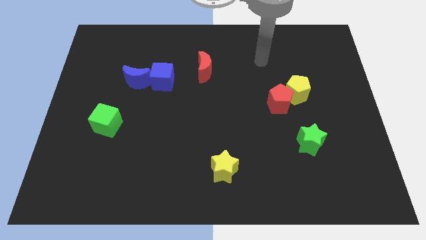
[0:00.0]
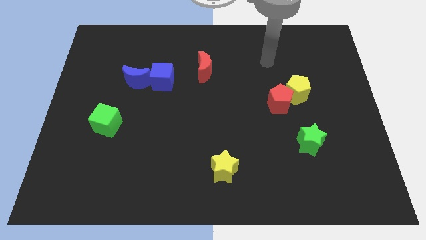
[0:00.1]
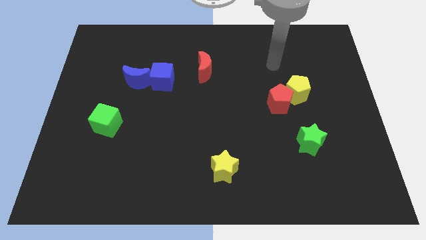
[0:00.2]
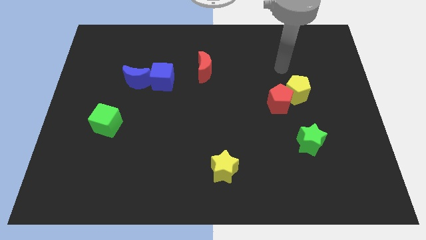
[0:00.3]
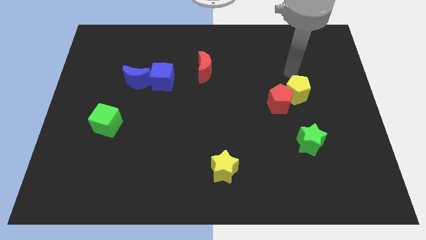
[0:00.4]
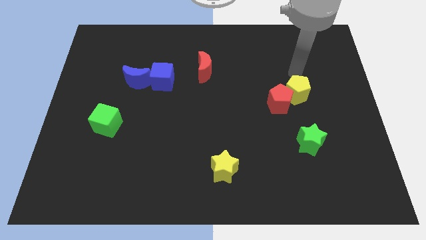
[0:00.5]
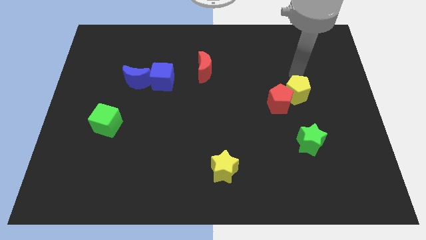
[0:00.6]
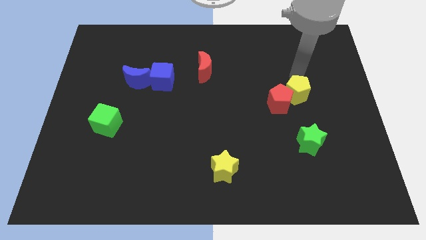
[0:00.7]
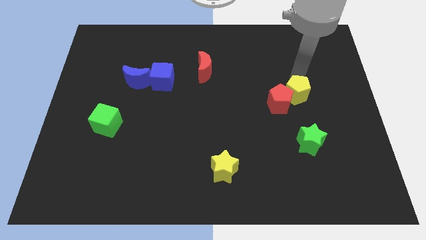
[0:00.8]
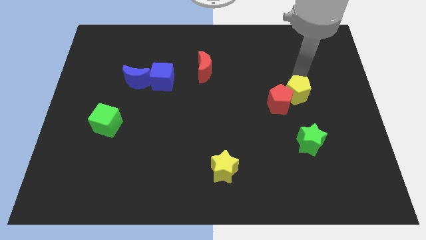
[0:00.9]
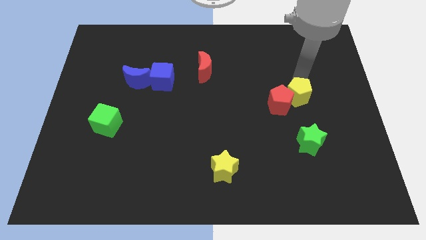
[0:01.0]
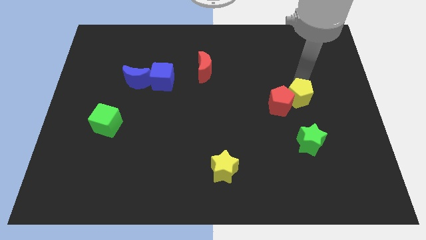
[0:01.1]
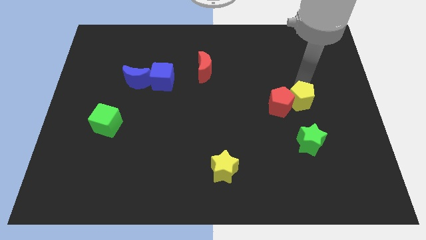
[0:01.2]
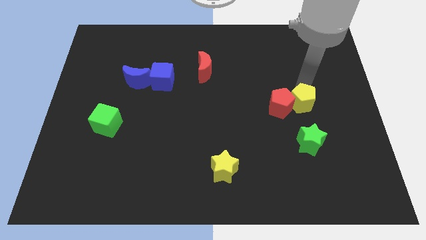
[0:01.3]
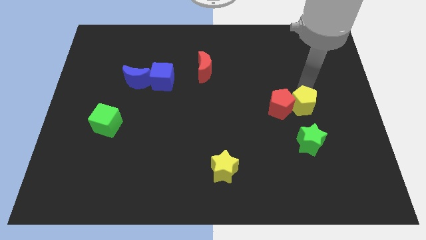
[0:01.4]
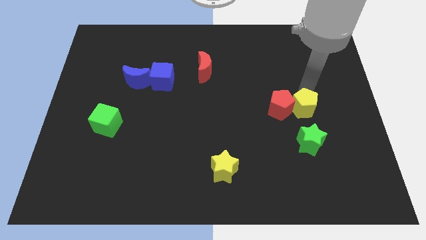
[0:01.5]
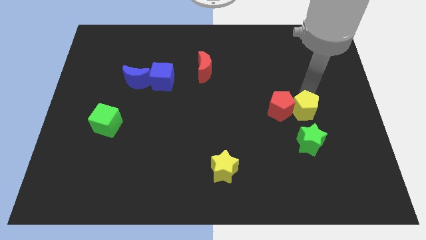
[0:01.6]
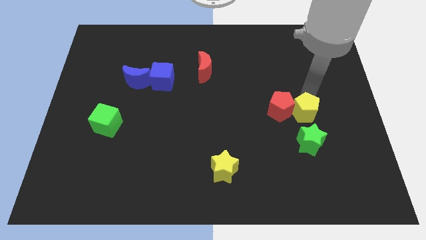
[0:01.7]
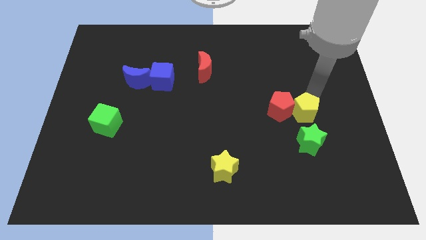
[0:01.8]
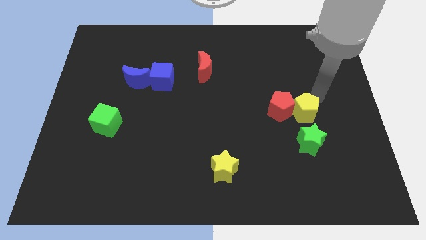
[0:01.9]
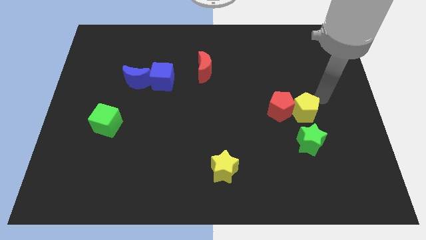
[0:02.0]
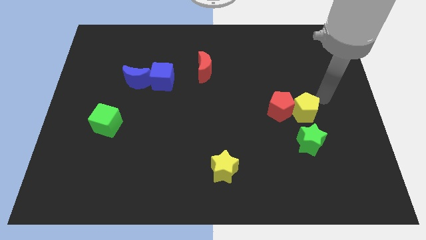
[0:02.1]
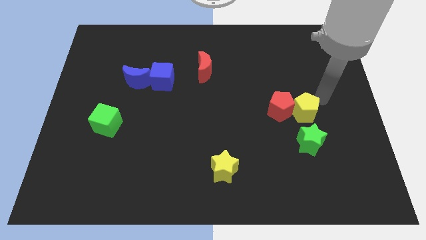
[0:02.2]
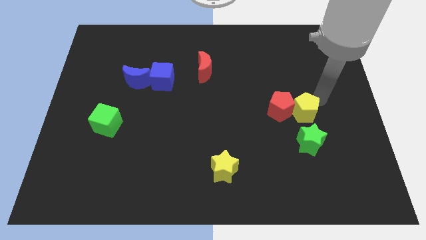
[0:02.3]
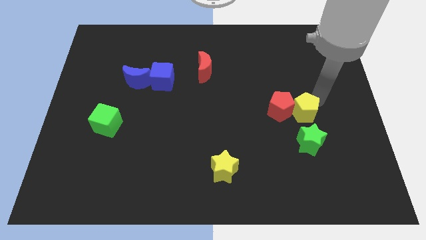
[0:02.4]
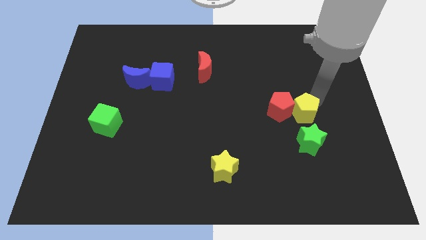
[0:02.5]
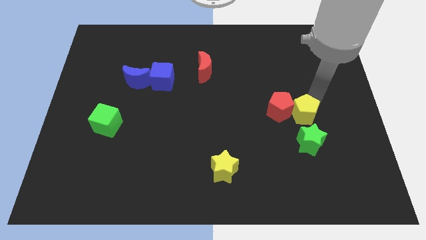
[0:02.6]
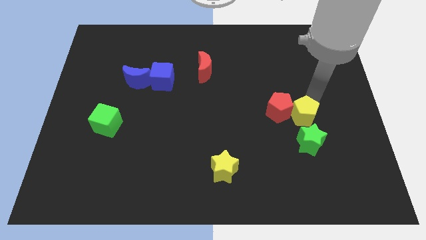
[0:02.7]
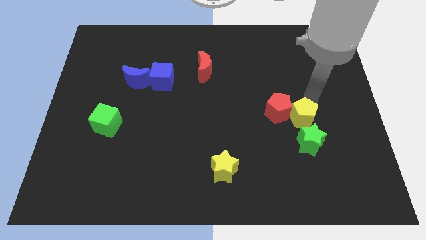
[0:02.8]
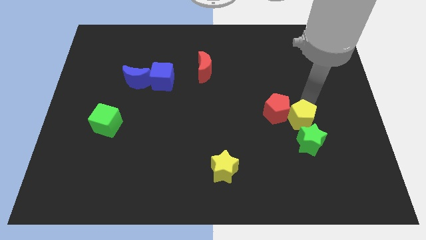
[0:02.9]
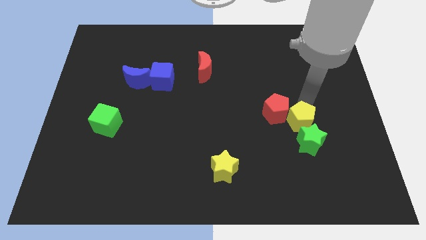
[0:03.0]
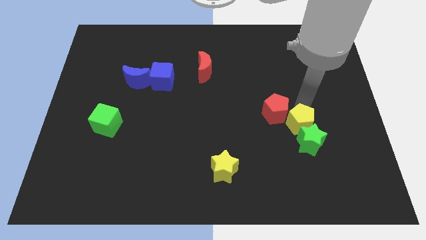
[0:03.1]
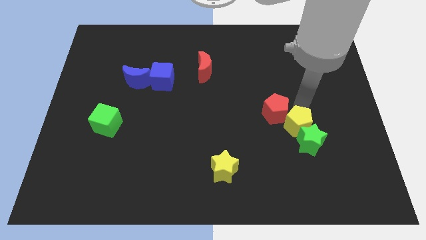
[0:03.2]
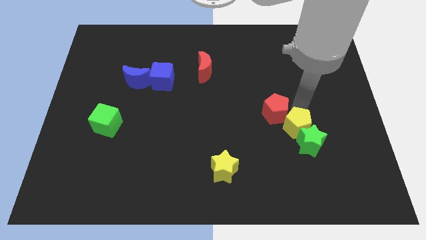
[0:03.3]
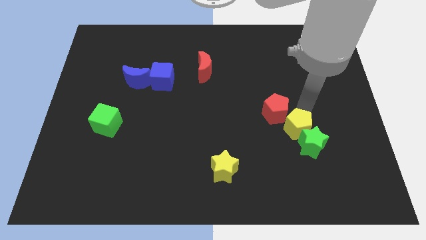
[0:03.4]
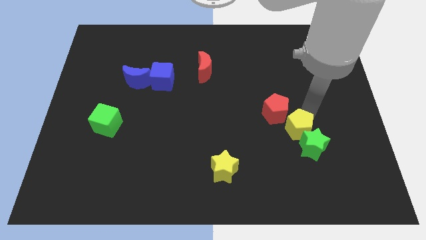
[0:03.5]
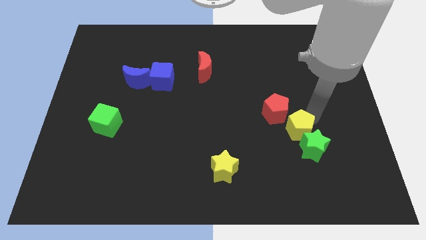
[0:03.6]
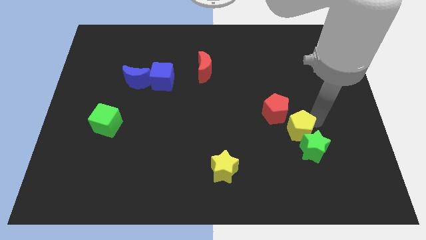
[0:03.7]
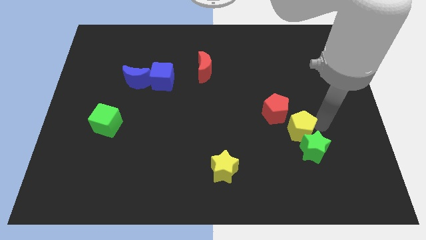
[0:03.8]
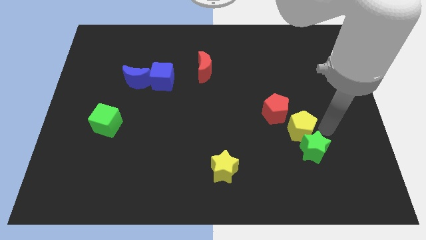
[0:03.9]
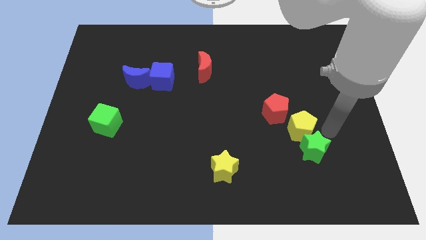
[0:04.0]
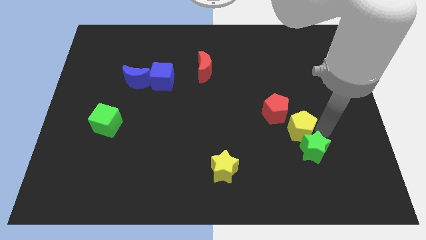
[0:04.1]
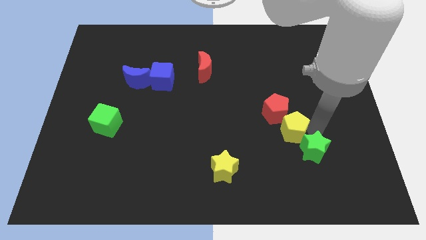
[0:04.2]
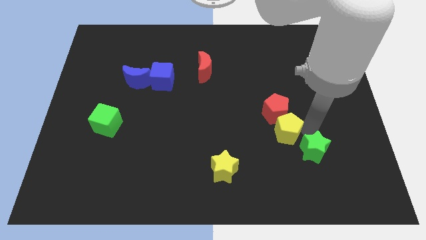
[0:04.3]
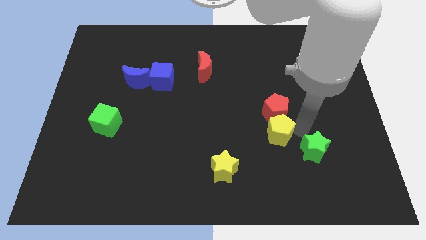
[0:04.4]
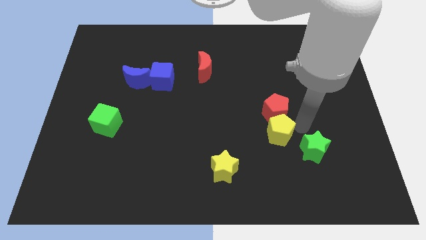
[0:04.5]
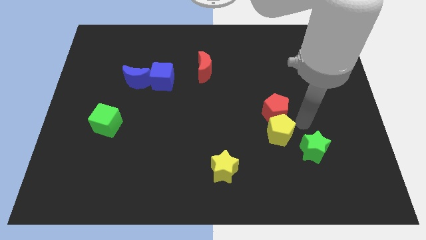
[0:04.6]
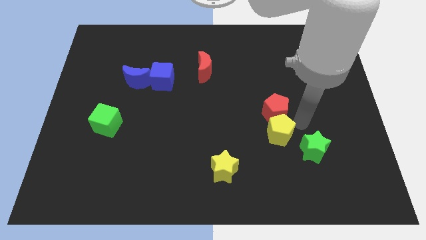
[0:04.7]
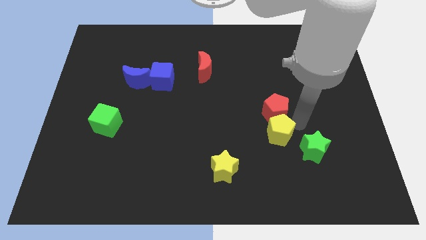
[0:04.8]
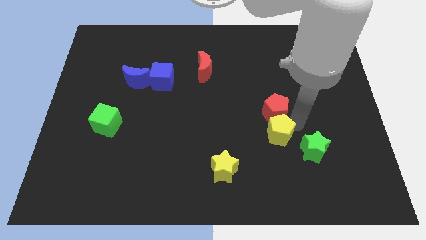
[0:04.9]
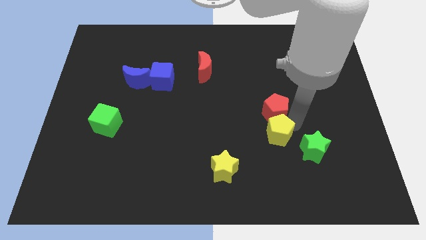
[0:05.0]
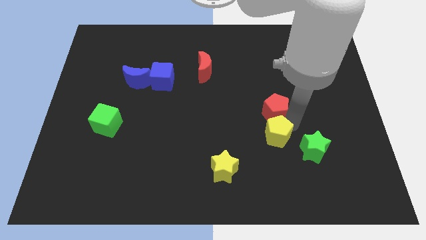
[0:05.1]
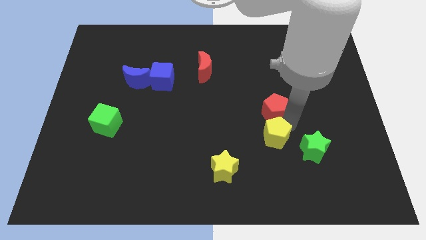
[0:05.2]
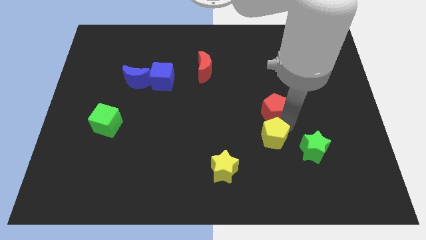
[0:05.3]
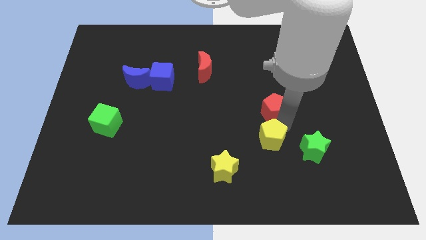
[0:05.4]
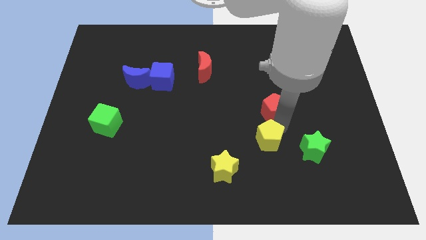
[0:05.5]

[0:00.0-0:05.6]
slide the yellow pentagon to the top right side of the yellow star

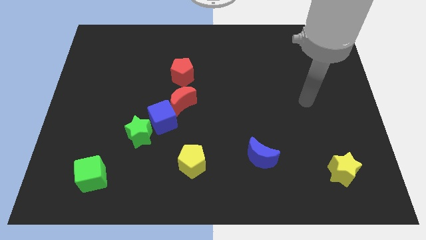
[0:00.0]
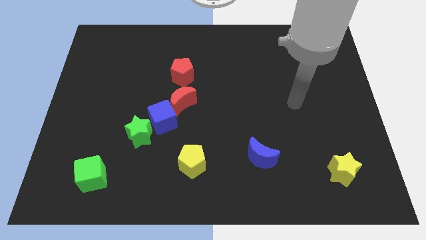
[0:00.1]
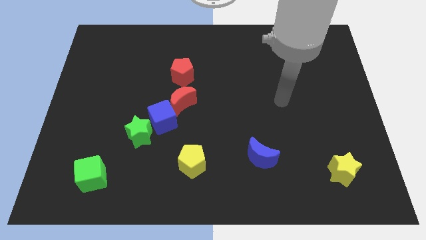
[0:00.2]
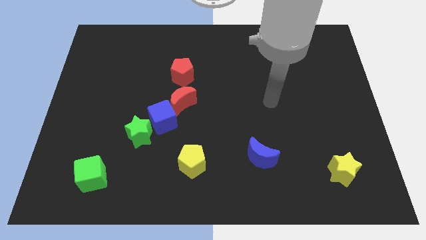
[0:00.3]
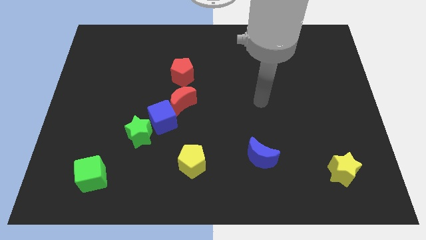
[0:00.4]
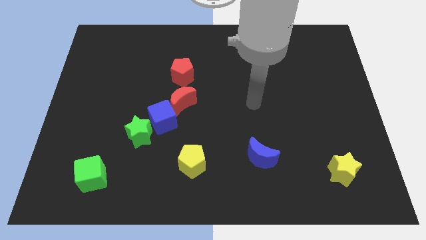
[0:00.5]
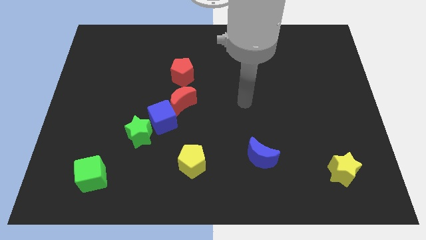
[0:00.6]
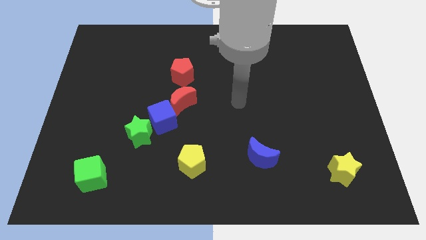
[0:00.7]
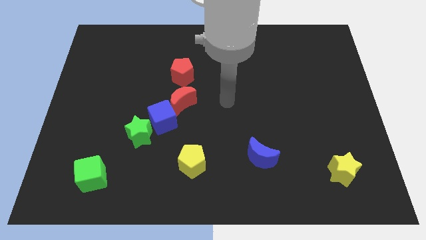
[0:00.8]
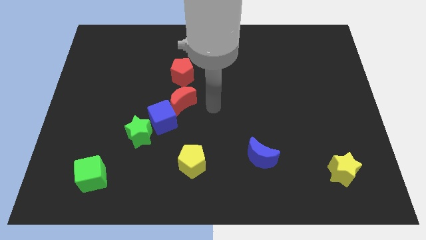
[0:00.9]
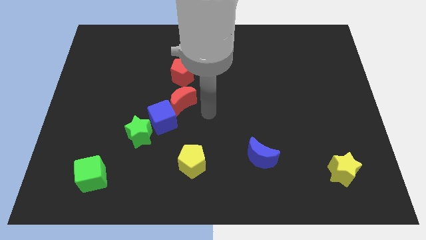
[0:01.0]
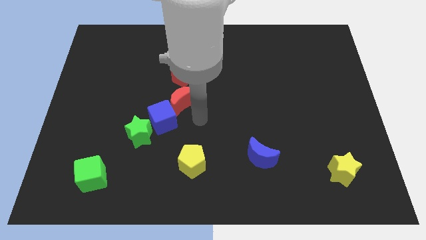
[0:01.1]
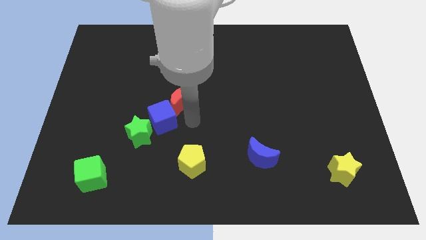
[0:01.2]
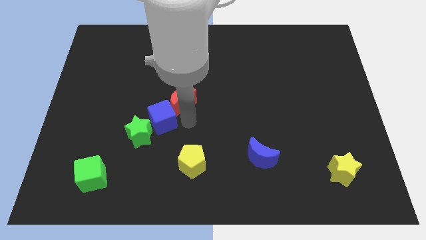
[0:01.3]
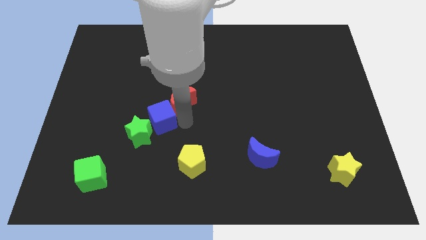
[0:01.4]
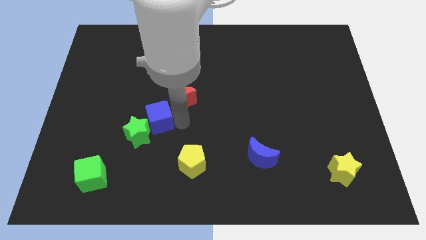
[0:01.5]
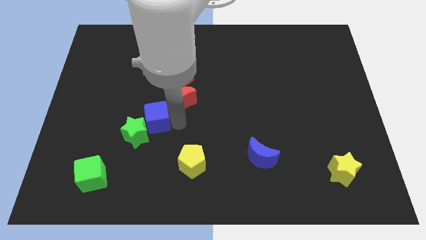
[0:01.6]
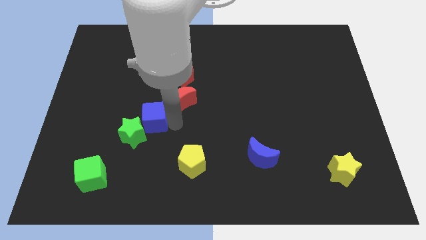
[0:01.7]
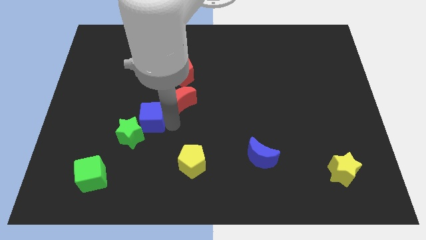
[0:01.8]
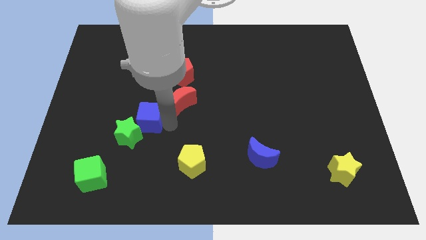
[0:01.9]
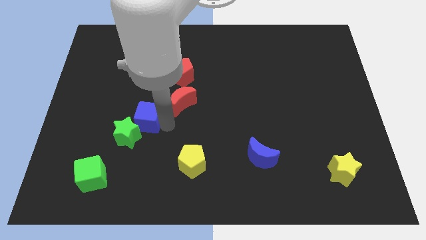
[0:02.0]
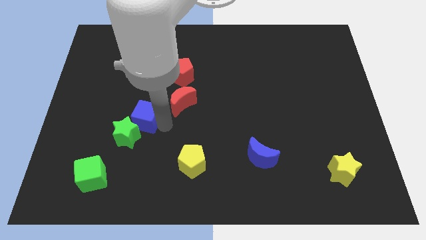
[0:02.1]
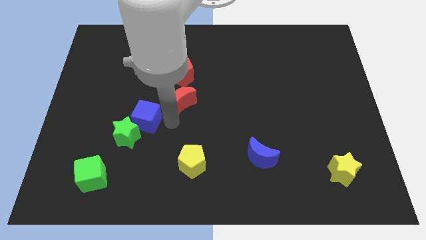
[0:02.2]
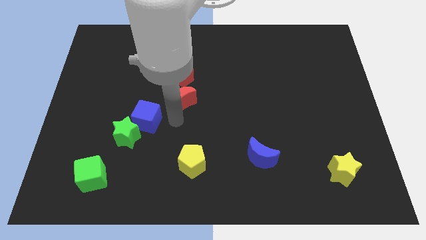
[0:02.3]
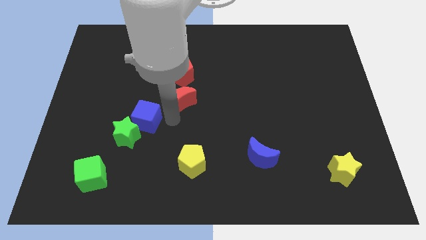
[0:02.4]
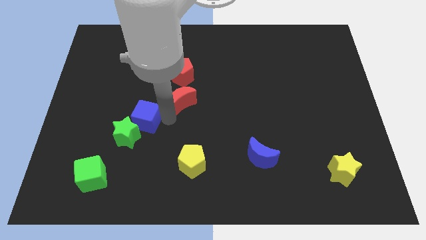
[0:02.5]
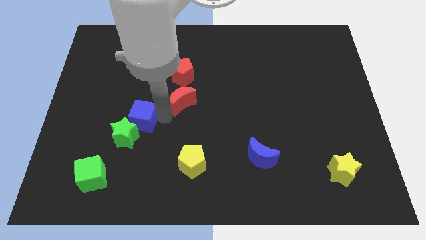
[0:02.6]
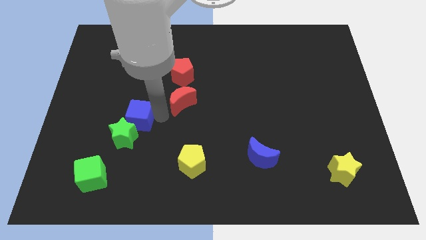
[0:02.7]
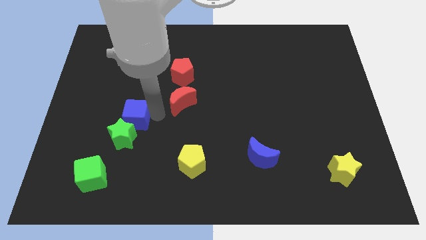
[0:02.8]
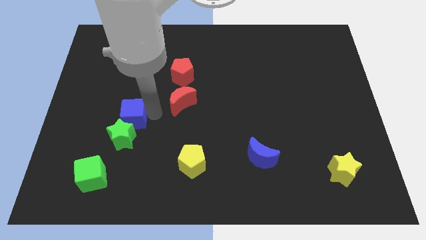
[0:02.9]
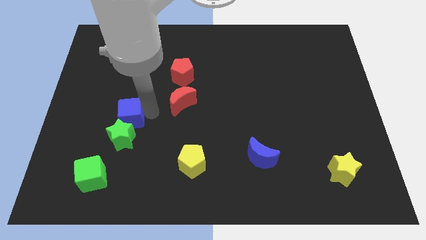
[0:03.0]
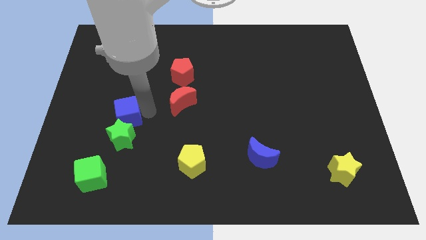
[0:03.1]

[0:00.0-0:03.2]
move the blue cube to the top left of the green star
